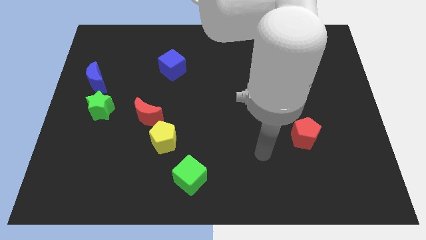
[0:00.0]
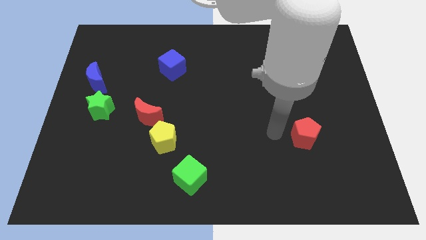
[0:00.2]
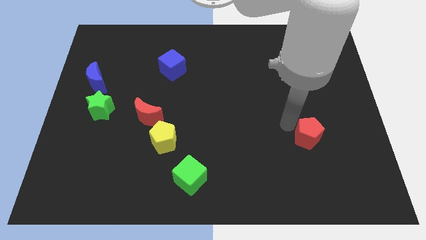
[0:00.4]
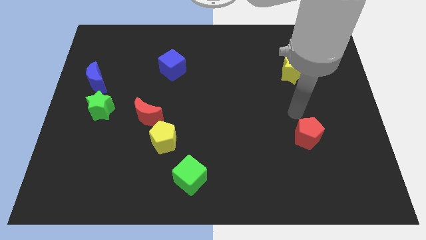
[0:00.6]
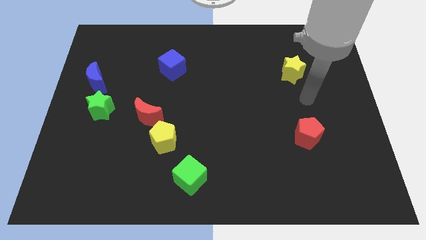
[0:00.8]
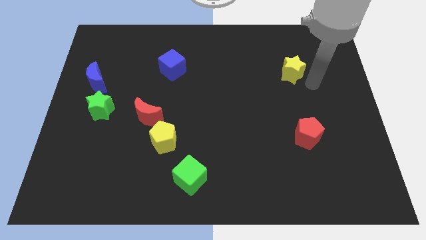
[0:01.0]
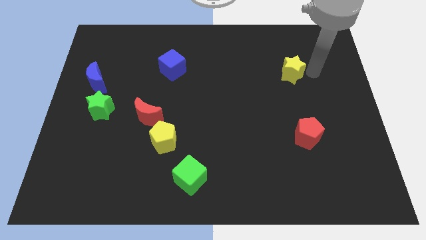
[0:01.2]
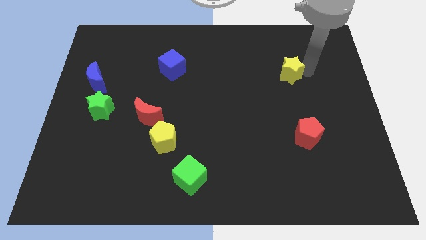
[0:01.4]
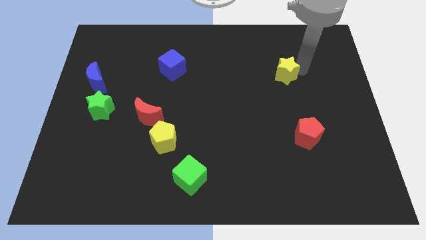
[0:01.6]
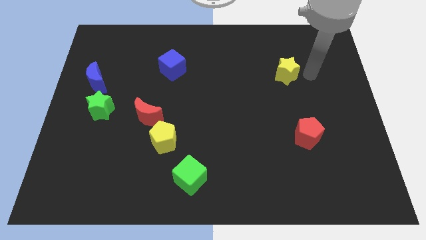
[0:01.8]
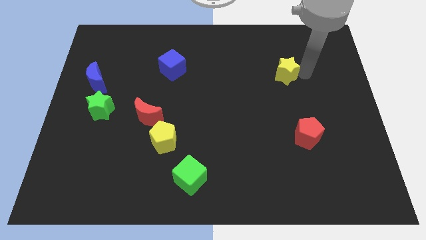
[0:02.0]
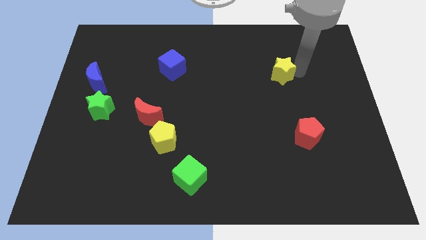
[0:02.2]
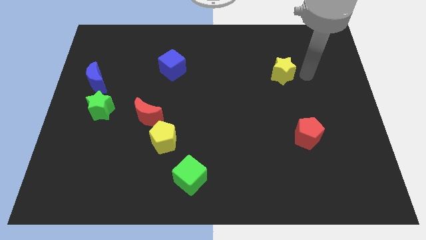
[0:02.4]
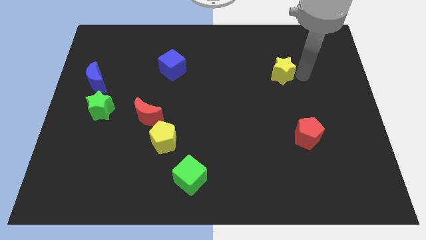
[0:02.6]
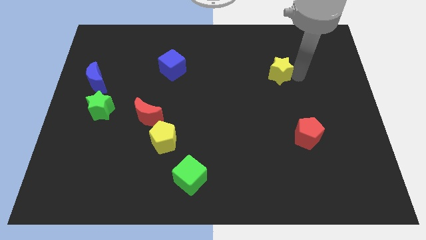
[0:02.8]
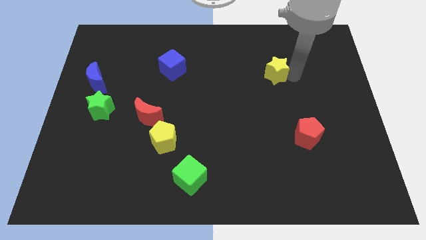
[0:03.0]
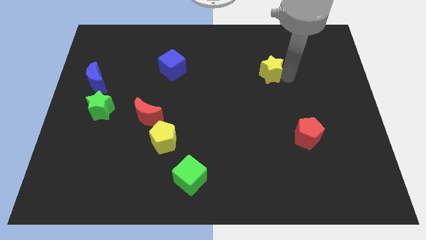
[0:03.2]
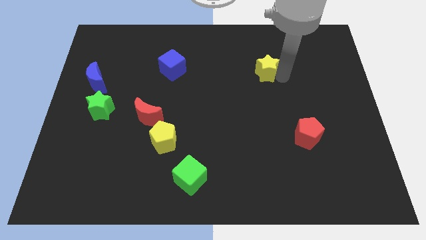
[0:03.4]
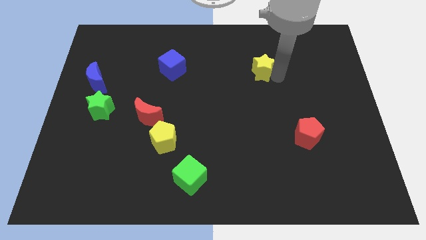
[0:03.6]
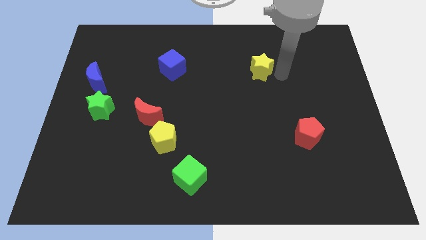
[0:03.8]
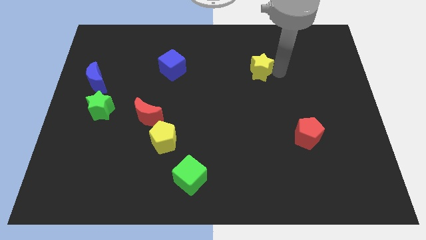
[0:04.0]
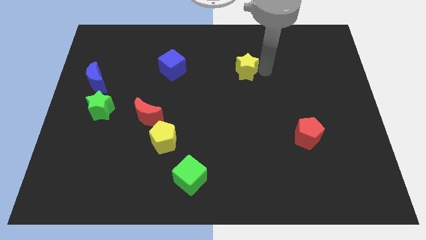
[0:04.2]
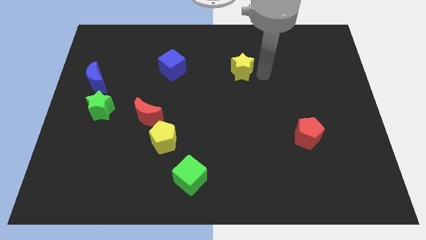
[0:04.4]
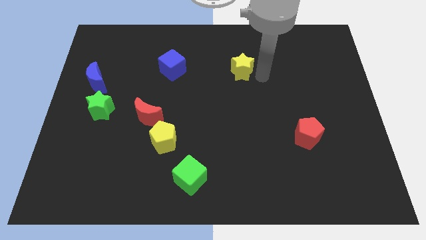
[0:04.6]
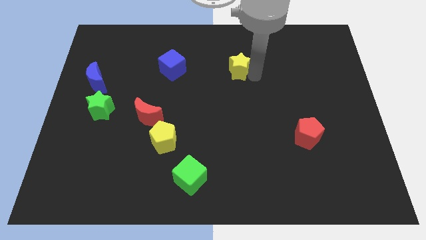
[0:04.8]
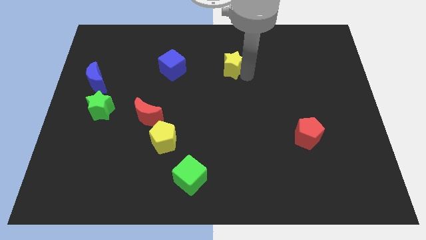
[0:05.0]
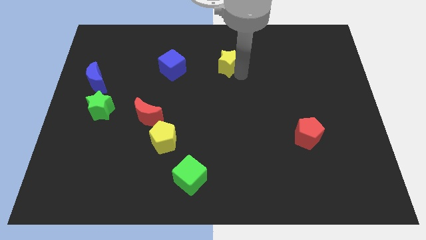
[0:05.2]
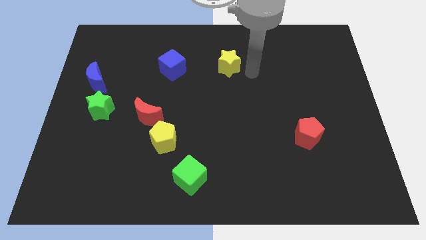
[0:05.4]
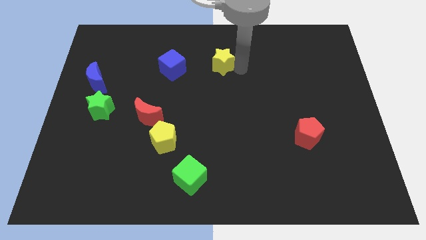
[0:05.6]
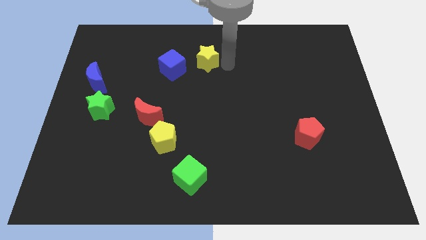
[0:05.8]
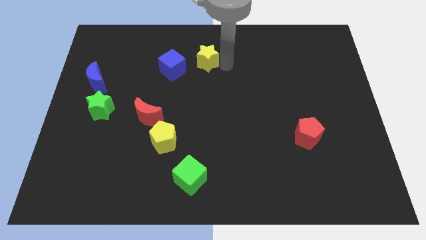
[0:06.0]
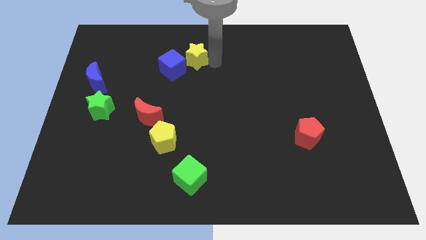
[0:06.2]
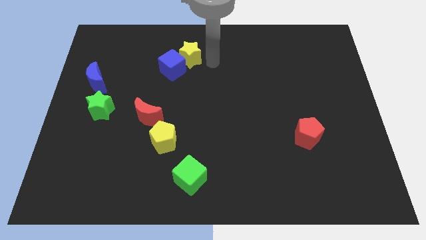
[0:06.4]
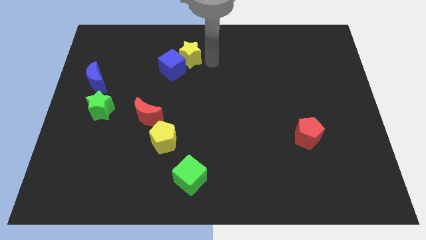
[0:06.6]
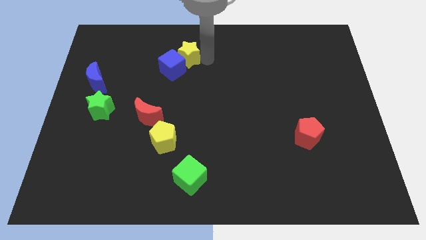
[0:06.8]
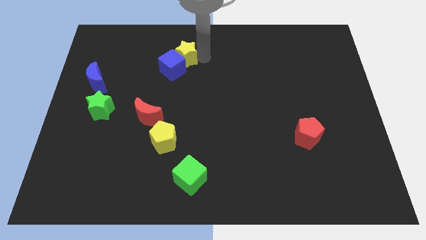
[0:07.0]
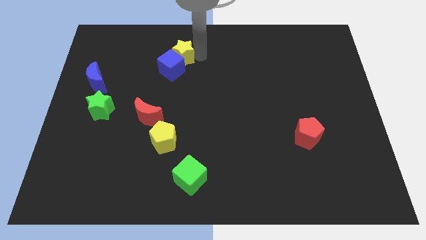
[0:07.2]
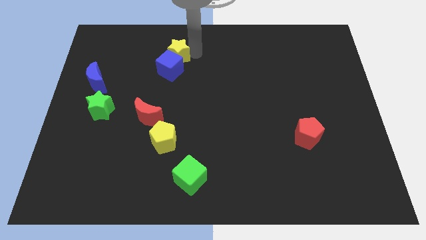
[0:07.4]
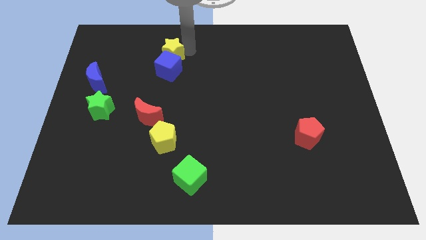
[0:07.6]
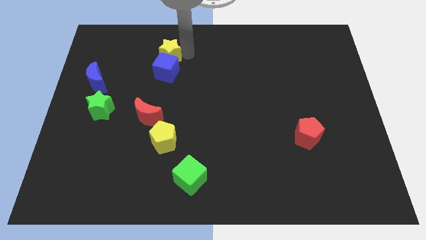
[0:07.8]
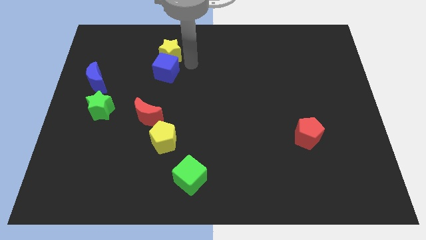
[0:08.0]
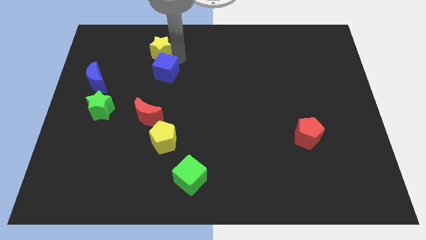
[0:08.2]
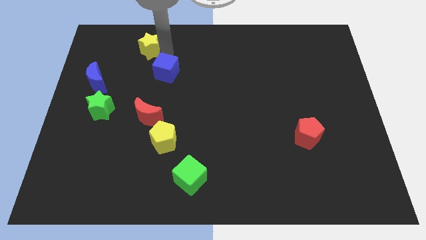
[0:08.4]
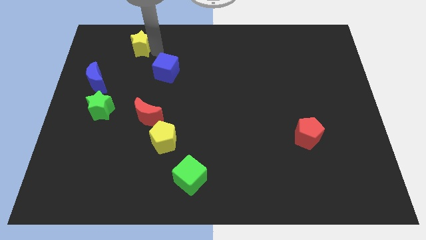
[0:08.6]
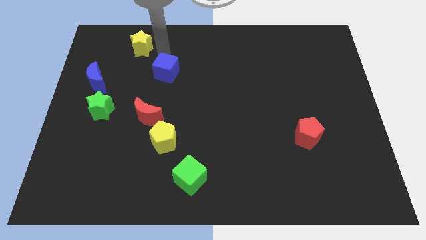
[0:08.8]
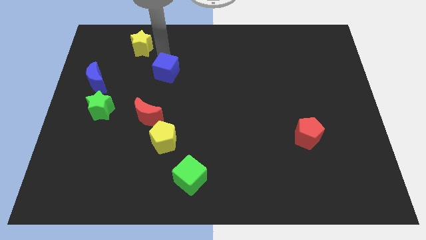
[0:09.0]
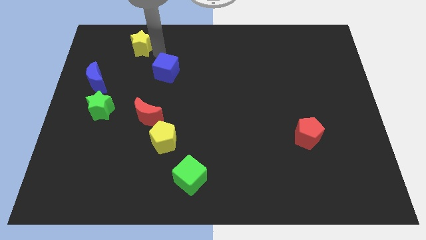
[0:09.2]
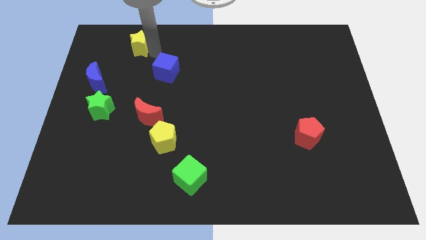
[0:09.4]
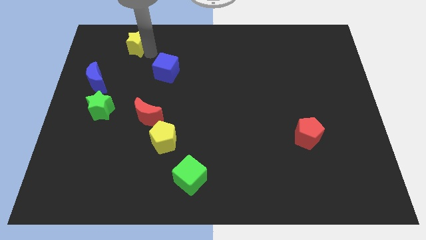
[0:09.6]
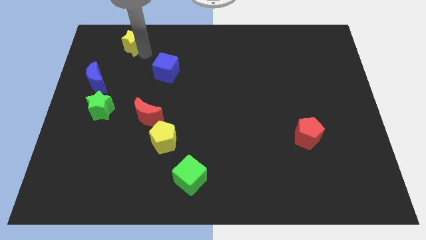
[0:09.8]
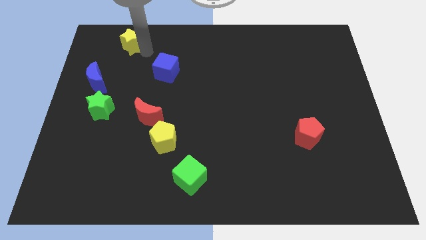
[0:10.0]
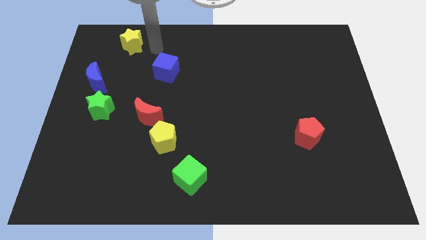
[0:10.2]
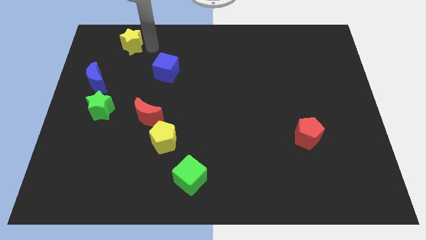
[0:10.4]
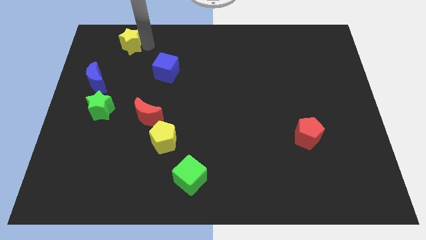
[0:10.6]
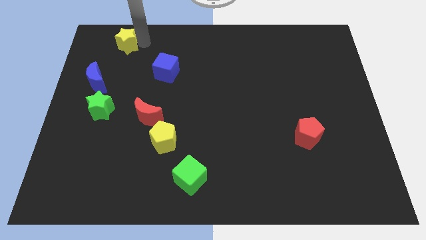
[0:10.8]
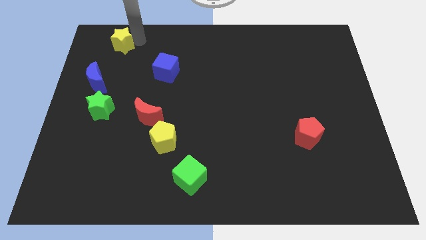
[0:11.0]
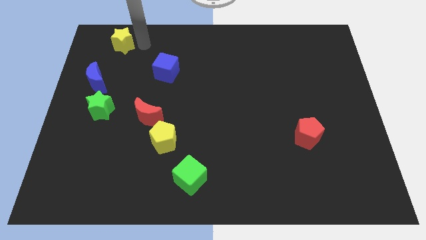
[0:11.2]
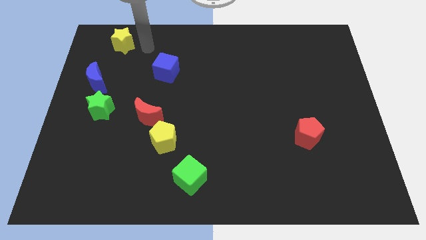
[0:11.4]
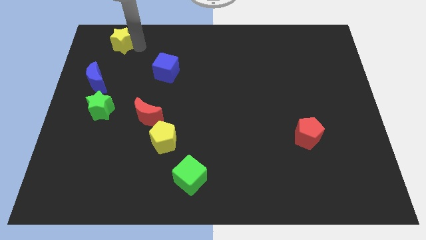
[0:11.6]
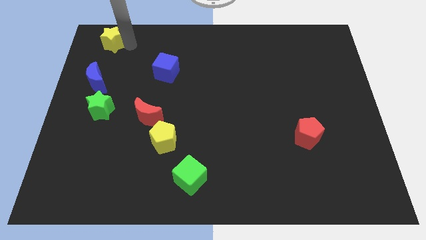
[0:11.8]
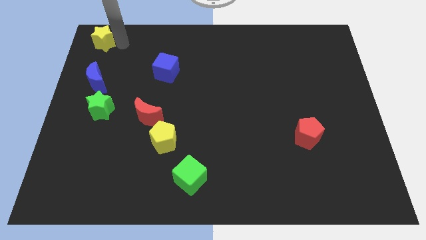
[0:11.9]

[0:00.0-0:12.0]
push the yellow star to the upper left corner
